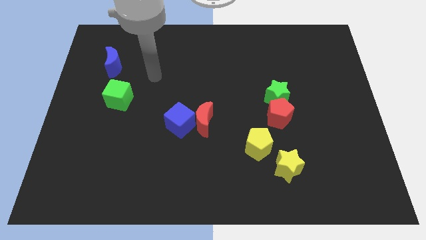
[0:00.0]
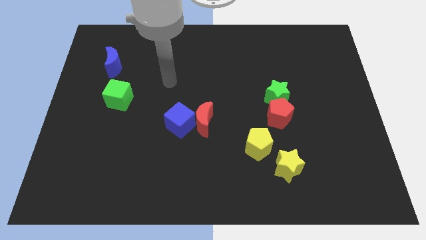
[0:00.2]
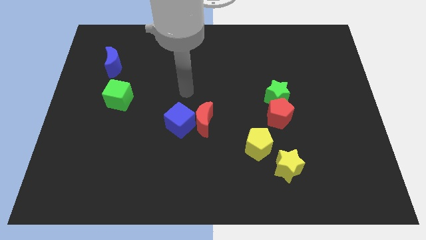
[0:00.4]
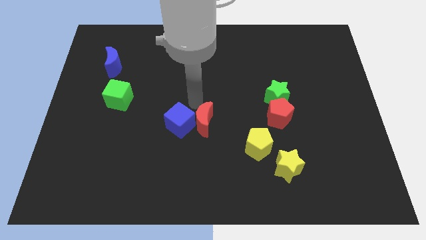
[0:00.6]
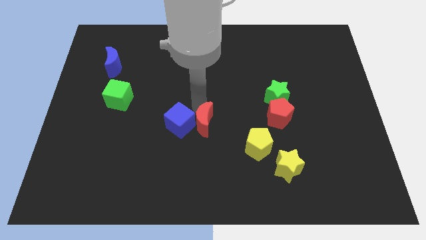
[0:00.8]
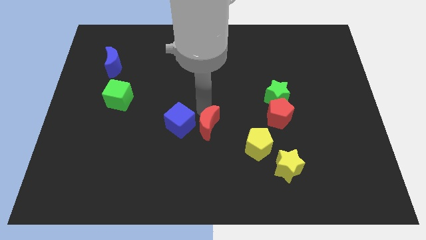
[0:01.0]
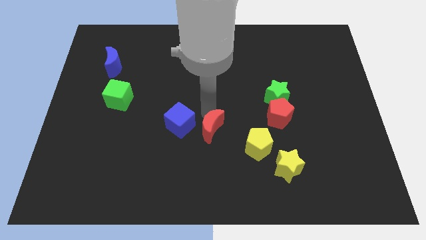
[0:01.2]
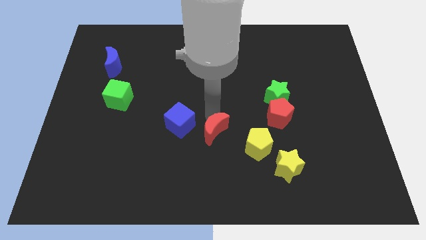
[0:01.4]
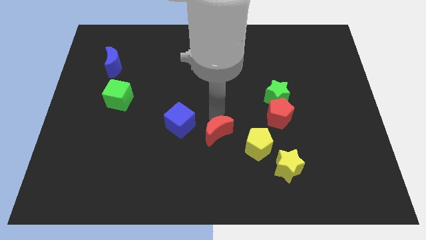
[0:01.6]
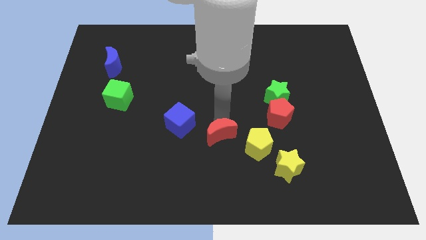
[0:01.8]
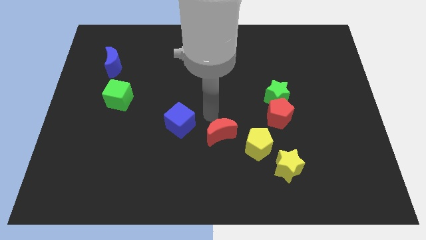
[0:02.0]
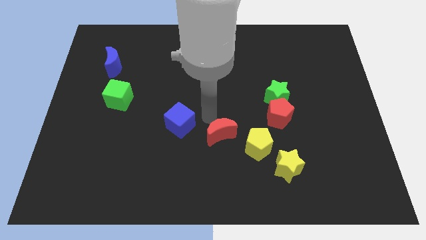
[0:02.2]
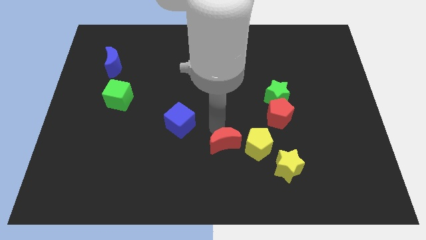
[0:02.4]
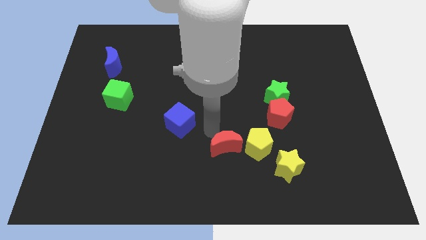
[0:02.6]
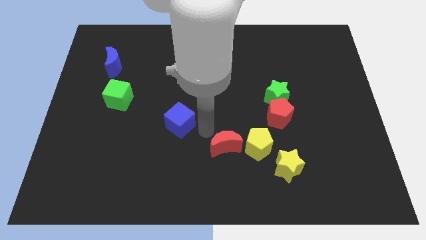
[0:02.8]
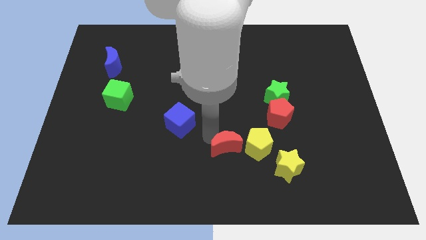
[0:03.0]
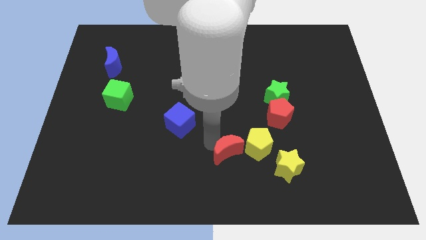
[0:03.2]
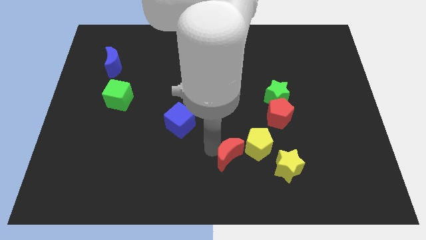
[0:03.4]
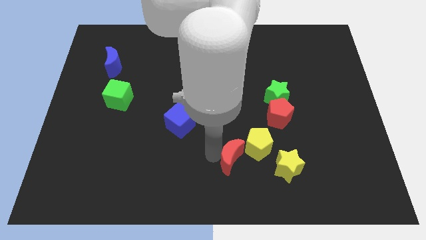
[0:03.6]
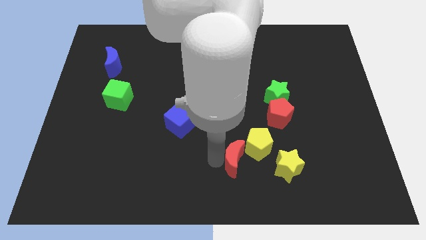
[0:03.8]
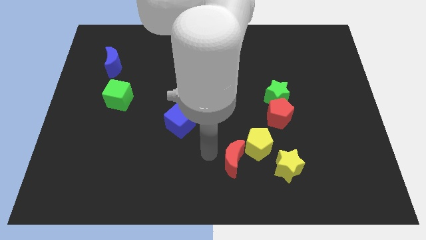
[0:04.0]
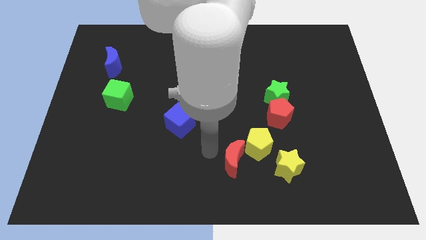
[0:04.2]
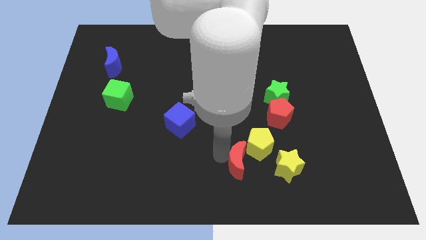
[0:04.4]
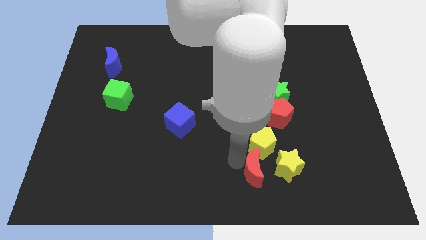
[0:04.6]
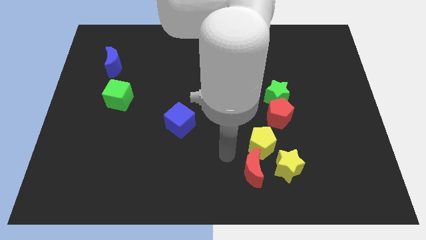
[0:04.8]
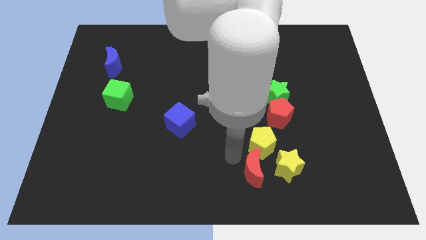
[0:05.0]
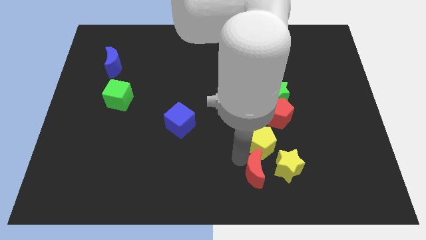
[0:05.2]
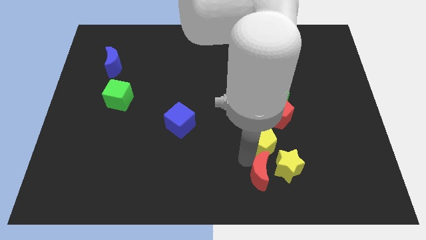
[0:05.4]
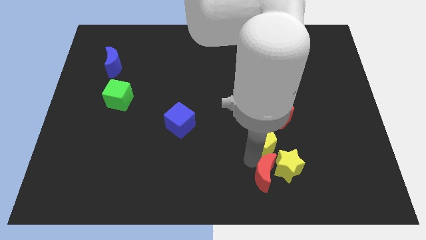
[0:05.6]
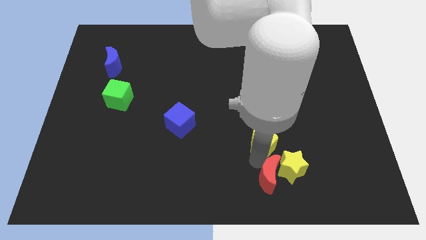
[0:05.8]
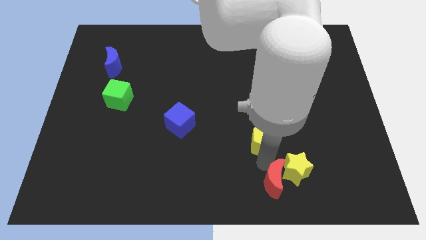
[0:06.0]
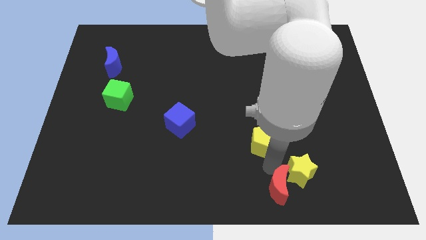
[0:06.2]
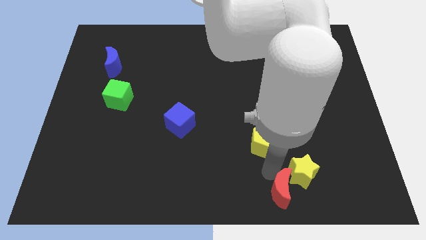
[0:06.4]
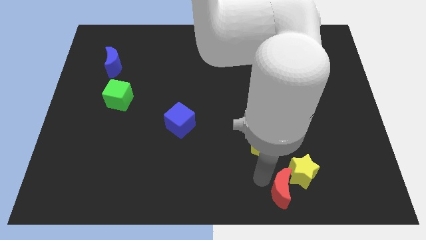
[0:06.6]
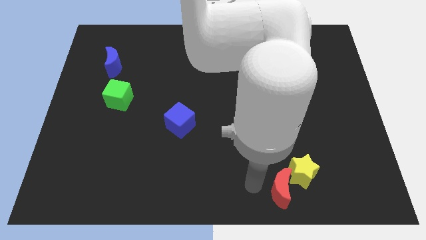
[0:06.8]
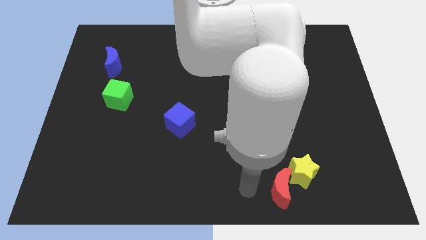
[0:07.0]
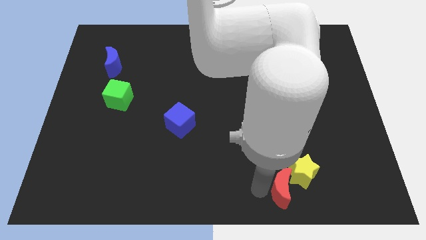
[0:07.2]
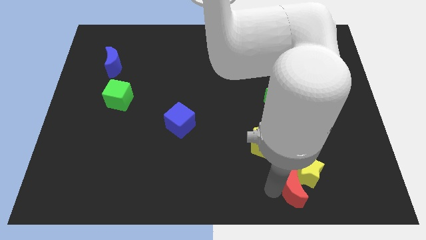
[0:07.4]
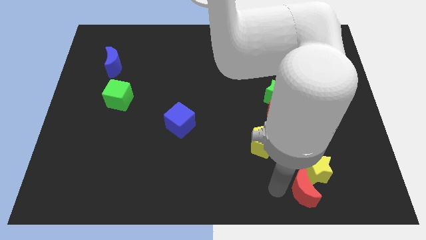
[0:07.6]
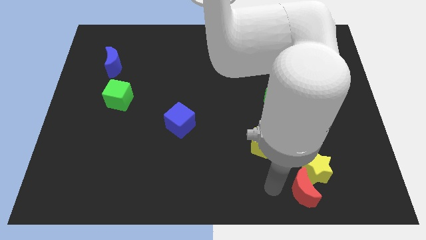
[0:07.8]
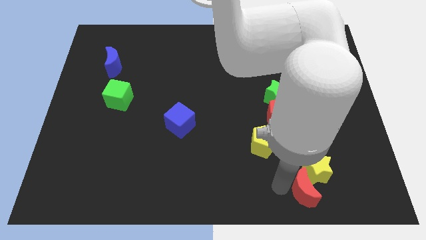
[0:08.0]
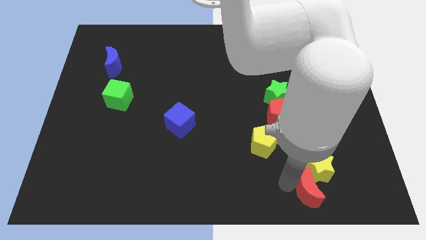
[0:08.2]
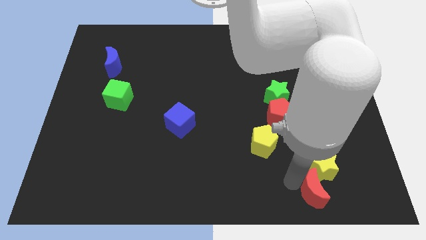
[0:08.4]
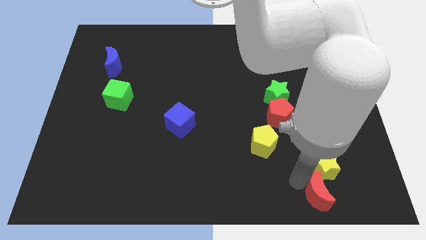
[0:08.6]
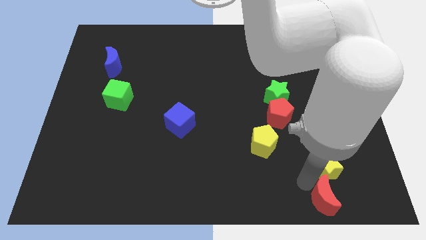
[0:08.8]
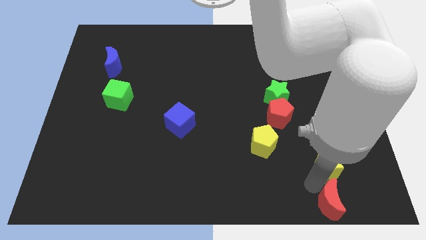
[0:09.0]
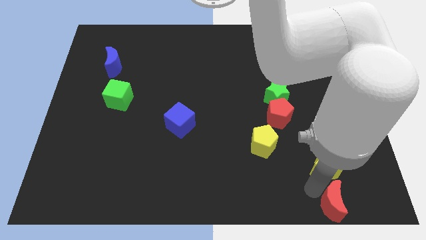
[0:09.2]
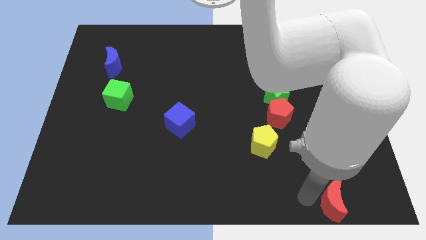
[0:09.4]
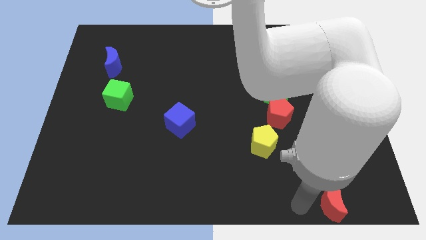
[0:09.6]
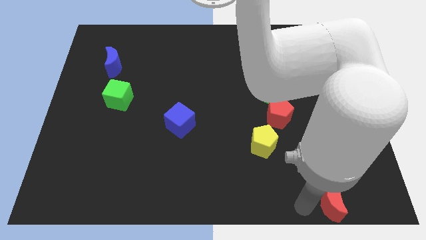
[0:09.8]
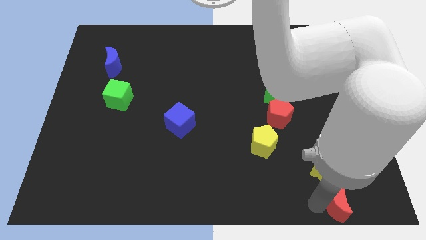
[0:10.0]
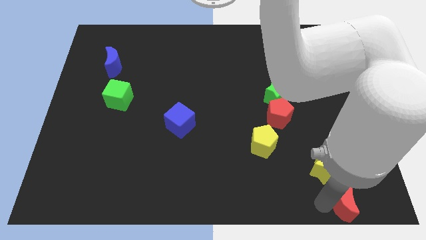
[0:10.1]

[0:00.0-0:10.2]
move the red moon to the lower right corner

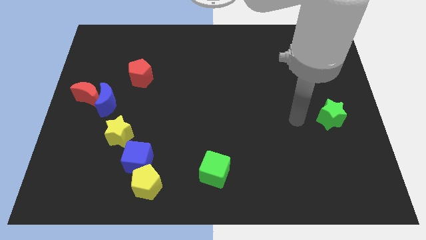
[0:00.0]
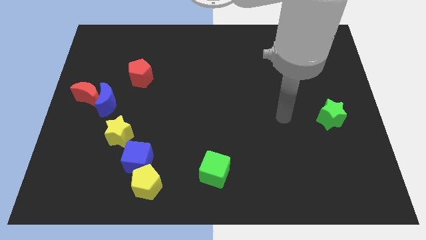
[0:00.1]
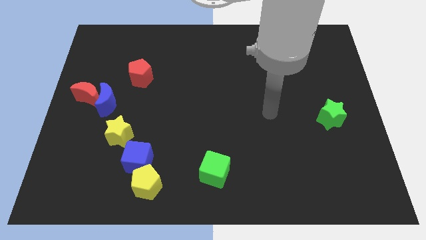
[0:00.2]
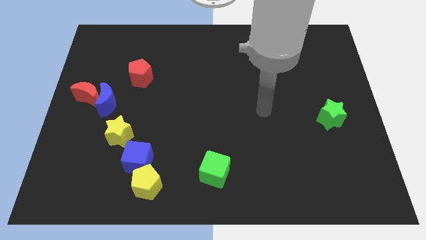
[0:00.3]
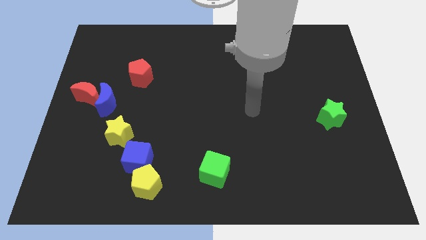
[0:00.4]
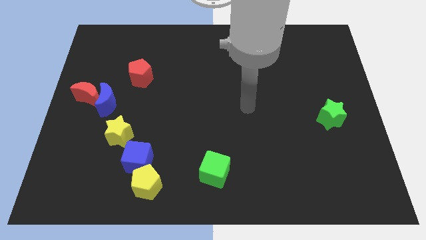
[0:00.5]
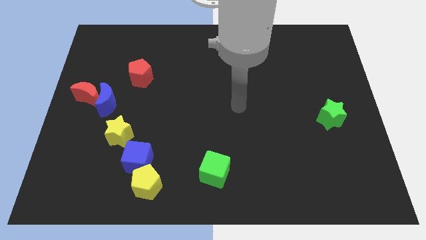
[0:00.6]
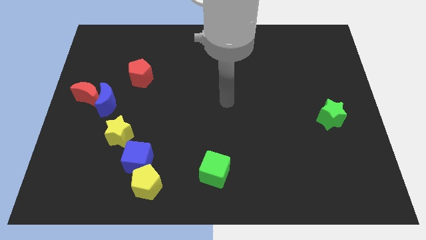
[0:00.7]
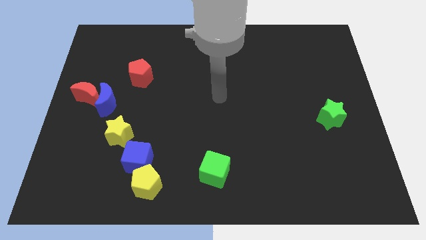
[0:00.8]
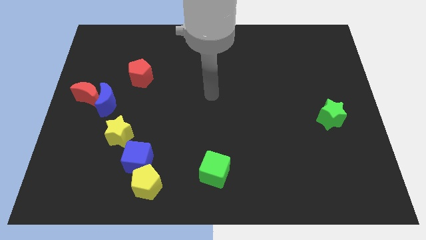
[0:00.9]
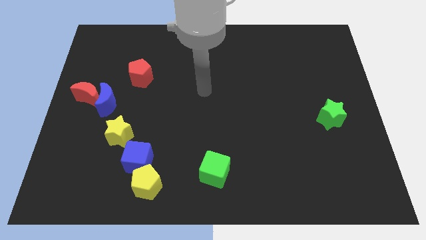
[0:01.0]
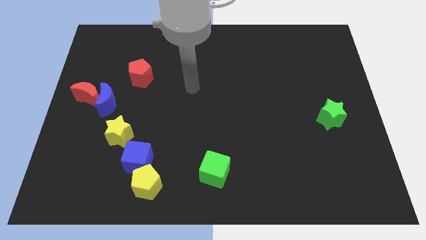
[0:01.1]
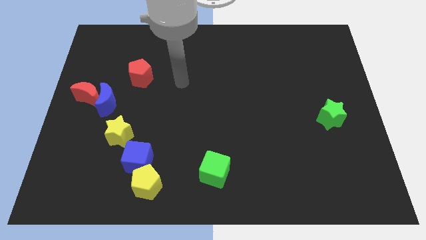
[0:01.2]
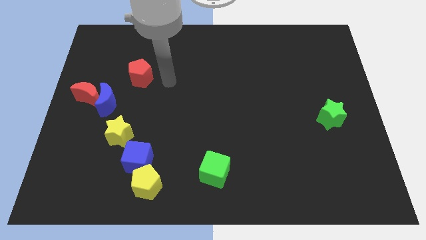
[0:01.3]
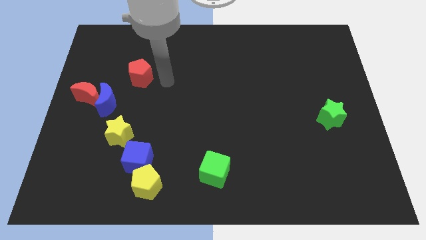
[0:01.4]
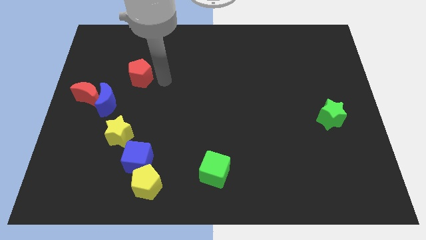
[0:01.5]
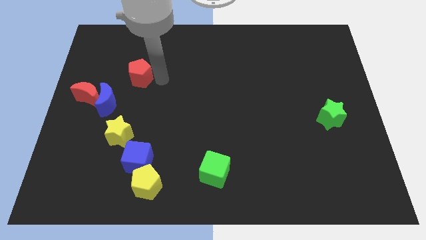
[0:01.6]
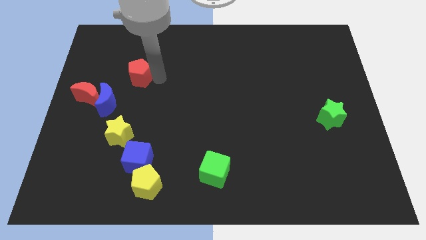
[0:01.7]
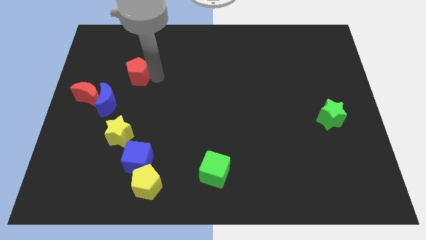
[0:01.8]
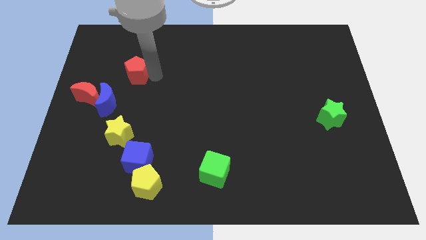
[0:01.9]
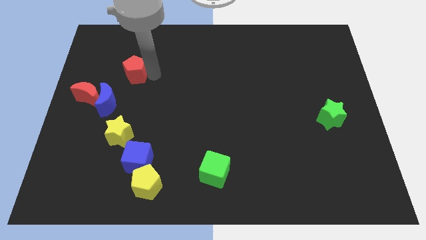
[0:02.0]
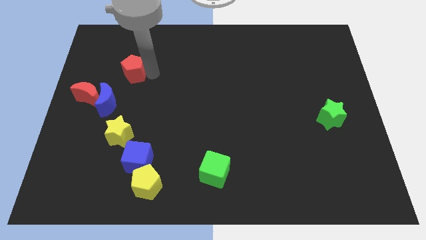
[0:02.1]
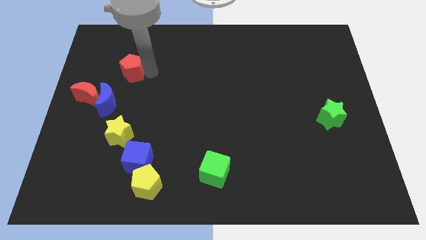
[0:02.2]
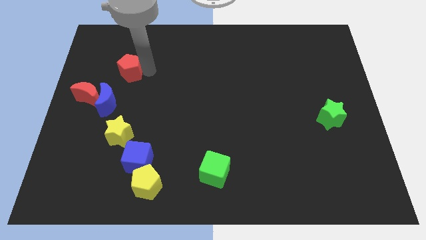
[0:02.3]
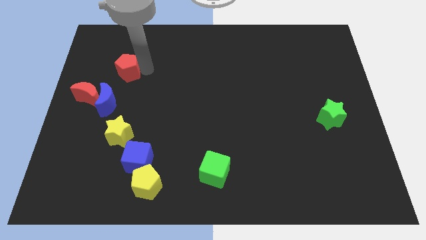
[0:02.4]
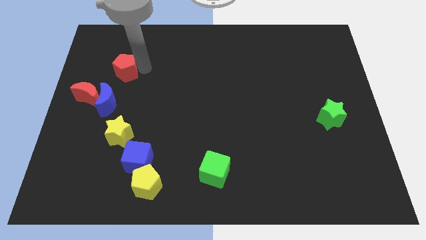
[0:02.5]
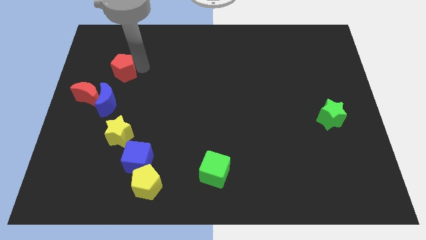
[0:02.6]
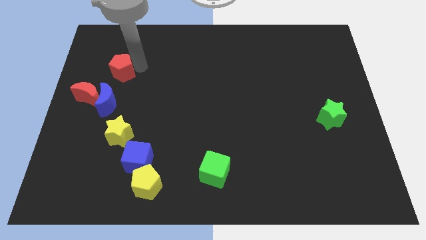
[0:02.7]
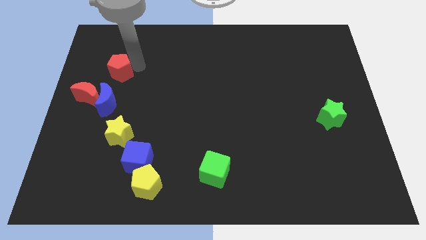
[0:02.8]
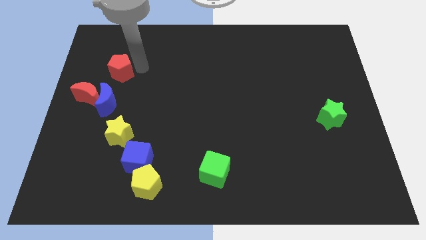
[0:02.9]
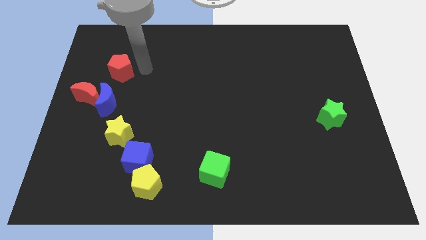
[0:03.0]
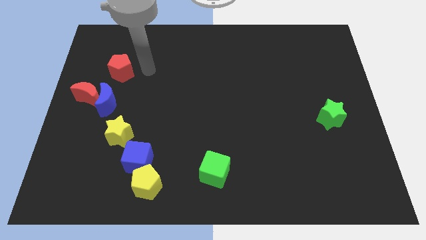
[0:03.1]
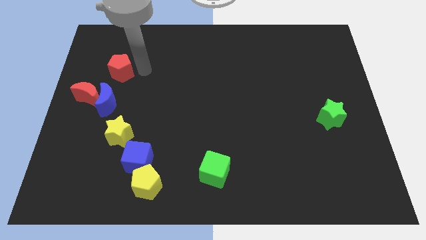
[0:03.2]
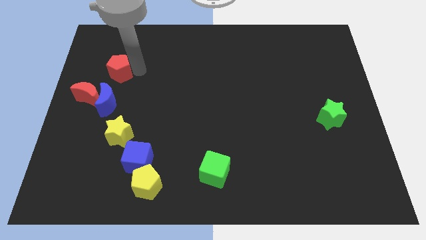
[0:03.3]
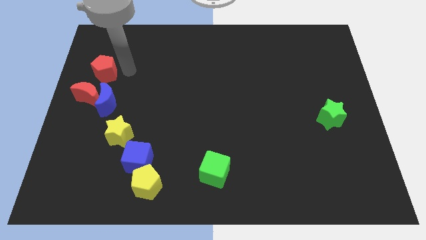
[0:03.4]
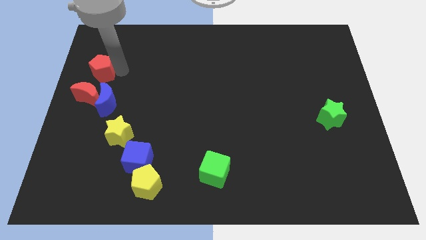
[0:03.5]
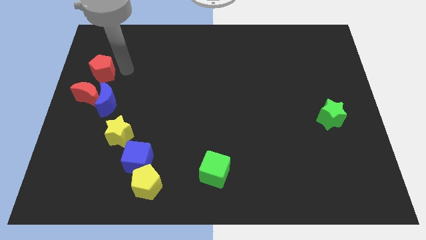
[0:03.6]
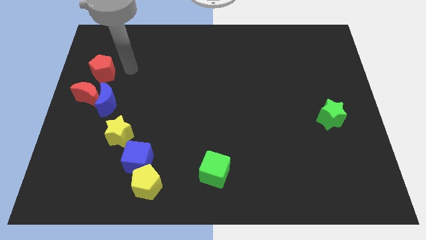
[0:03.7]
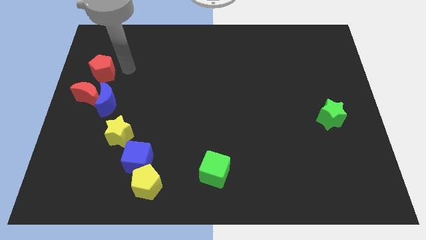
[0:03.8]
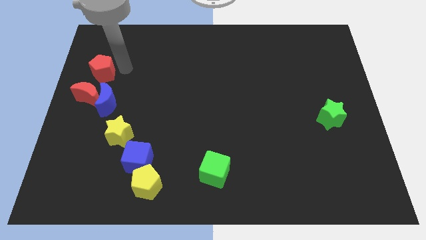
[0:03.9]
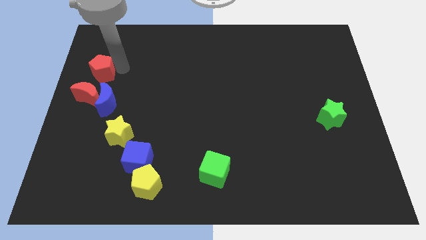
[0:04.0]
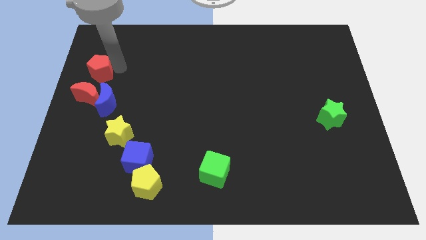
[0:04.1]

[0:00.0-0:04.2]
push the red pentagon to the left side of the board
